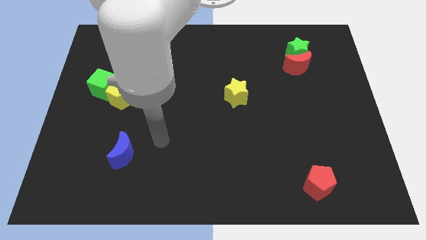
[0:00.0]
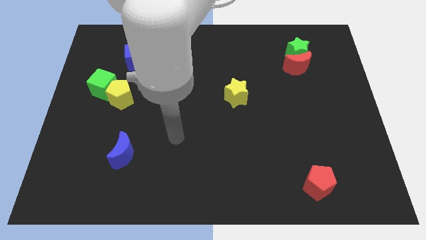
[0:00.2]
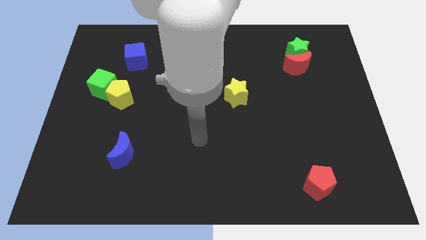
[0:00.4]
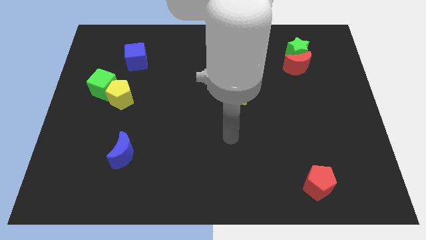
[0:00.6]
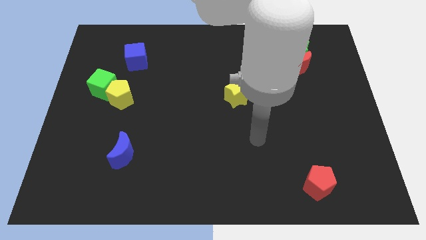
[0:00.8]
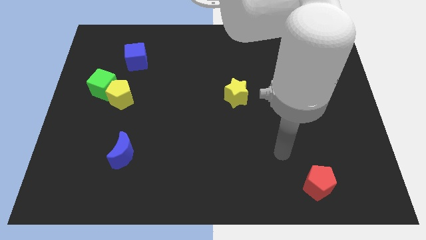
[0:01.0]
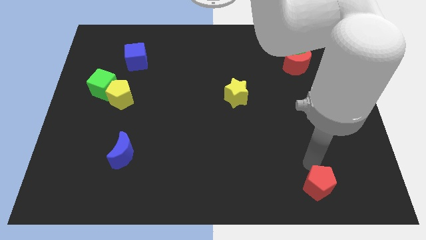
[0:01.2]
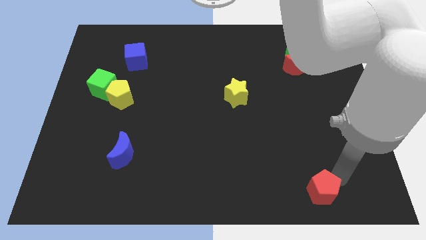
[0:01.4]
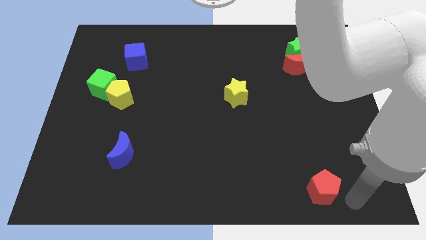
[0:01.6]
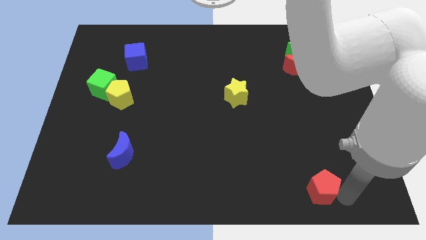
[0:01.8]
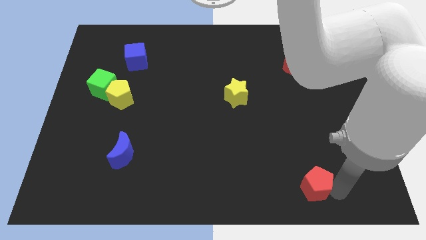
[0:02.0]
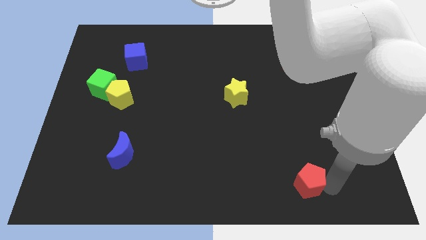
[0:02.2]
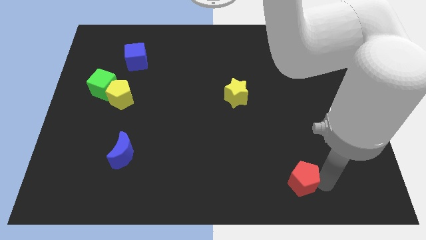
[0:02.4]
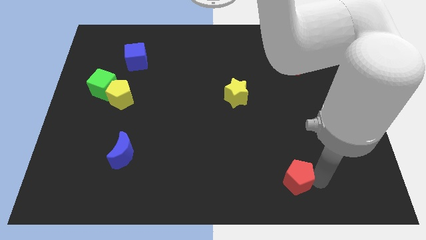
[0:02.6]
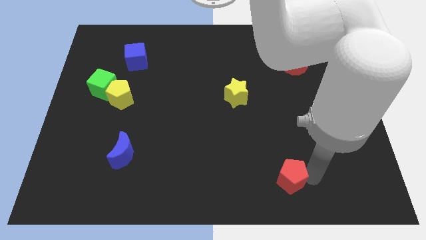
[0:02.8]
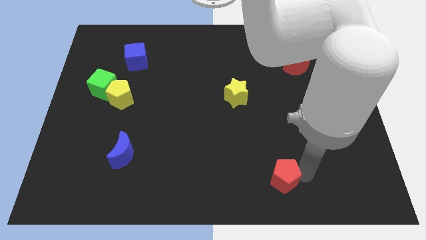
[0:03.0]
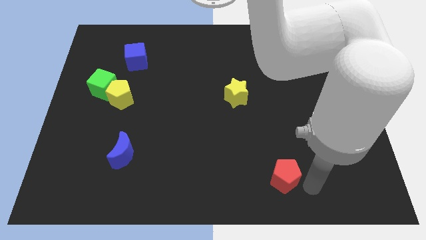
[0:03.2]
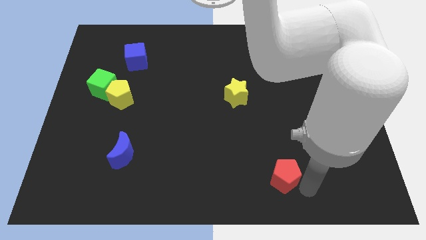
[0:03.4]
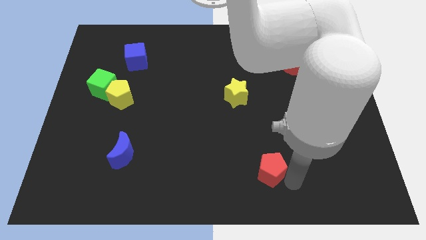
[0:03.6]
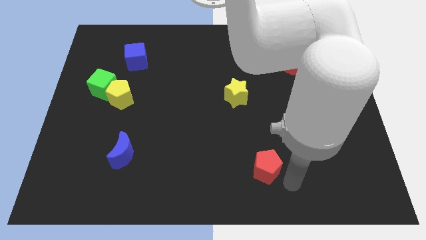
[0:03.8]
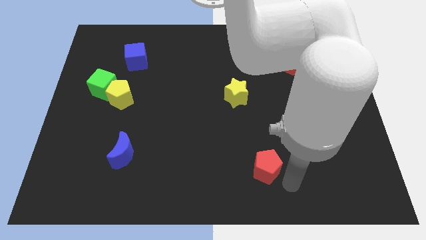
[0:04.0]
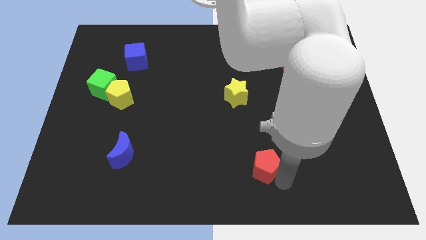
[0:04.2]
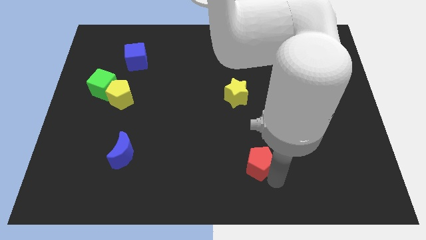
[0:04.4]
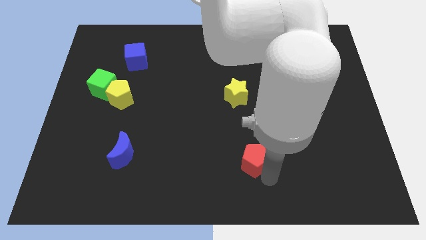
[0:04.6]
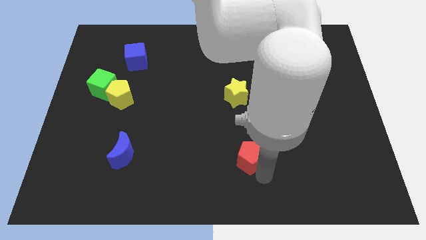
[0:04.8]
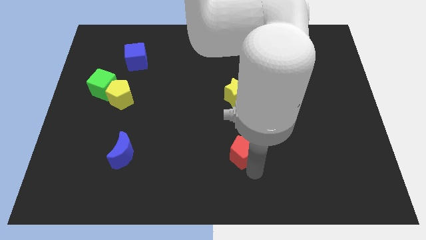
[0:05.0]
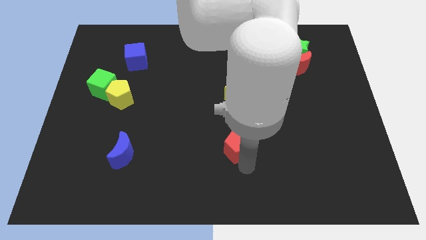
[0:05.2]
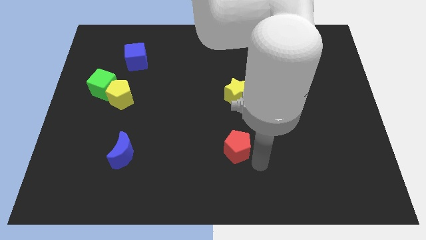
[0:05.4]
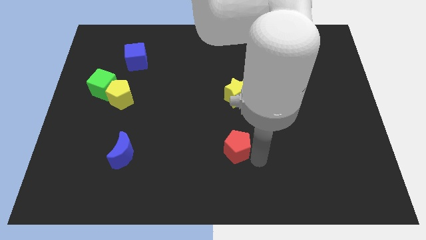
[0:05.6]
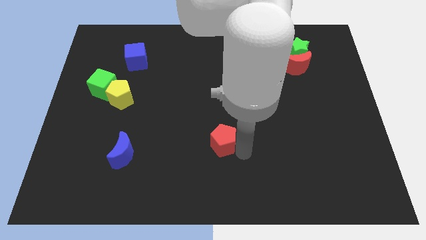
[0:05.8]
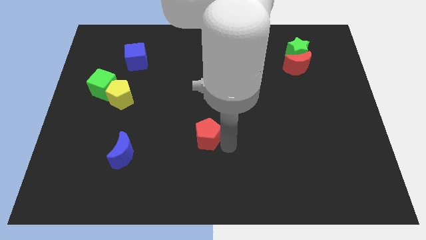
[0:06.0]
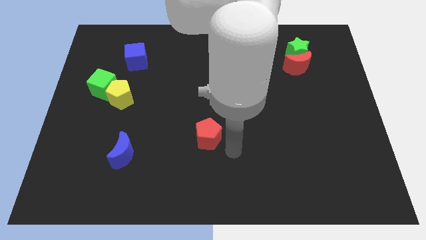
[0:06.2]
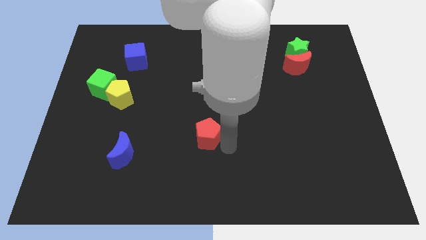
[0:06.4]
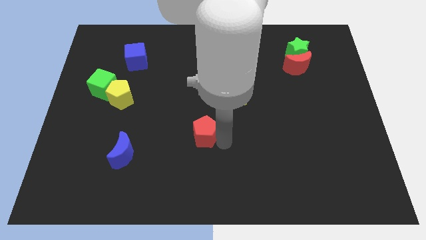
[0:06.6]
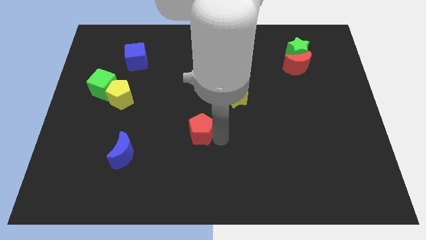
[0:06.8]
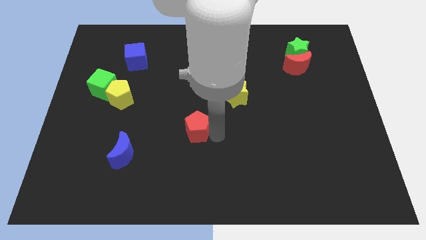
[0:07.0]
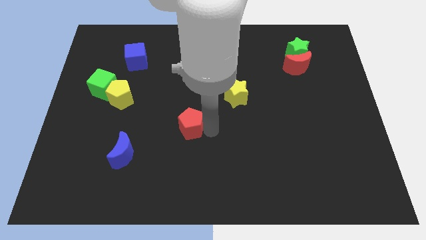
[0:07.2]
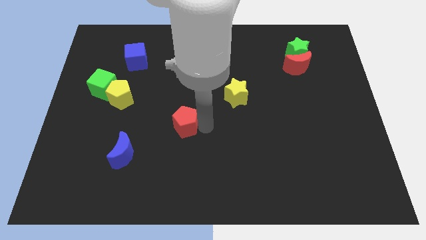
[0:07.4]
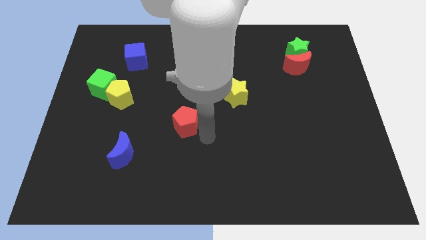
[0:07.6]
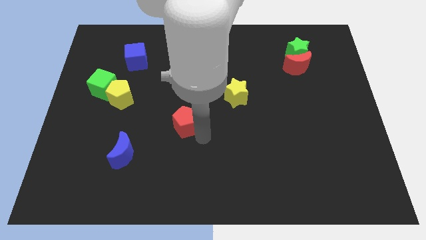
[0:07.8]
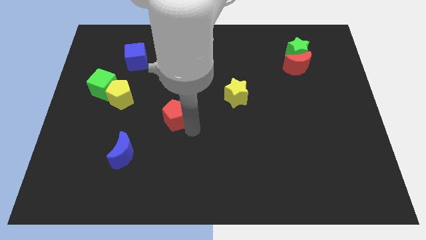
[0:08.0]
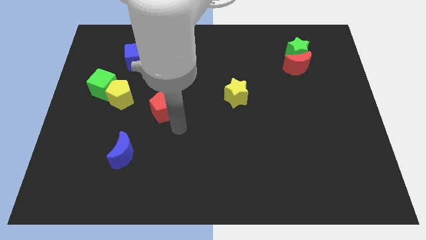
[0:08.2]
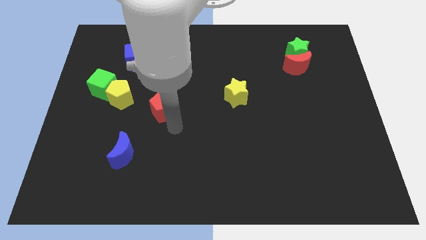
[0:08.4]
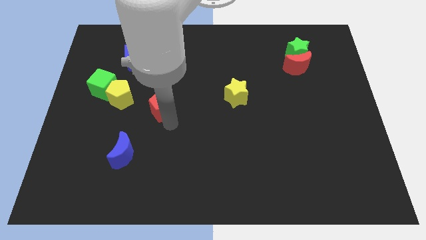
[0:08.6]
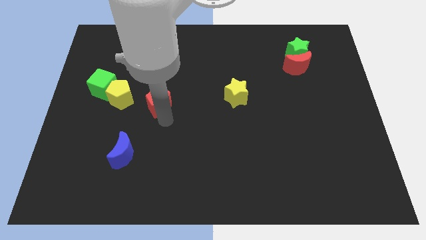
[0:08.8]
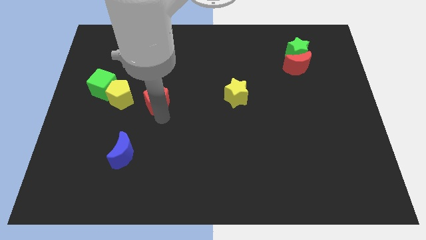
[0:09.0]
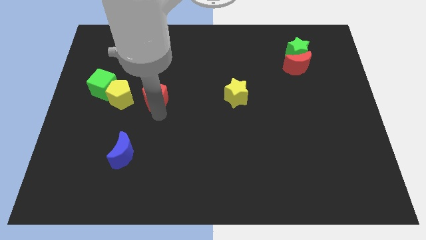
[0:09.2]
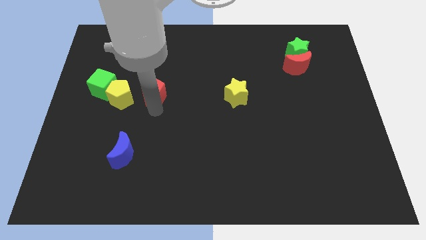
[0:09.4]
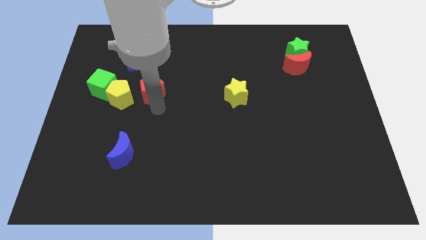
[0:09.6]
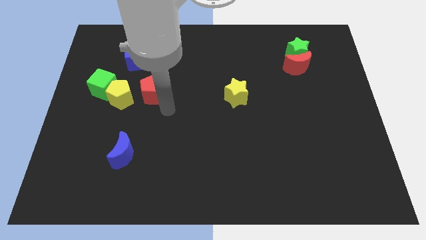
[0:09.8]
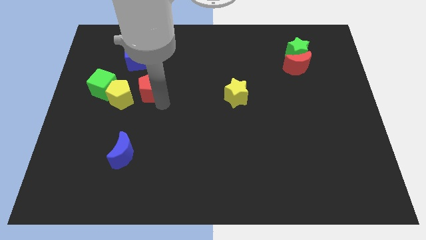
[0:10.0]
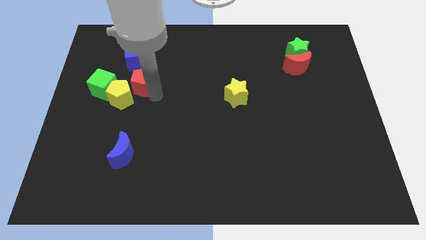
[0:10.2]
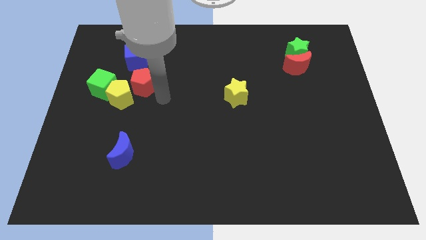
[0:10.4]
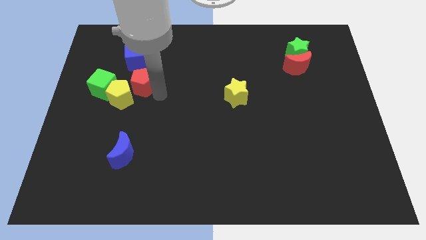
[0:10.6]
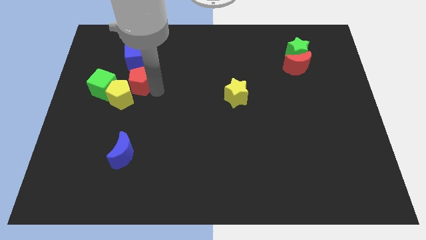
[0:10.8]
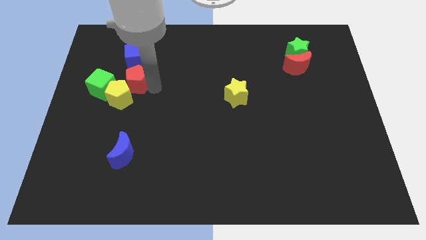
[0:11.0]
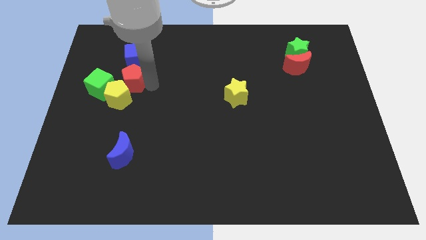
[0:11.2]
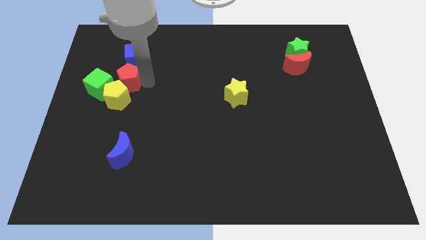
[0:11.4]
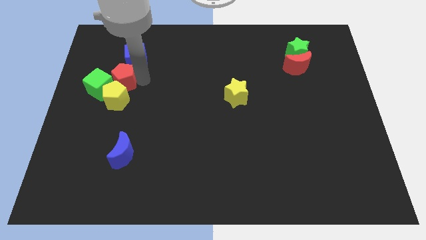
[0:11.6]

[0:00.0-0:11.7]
move the red pentagon to the green cube

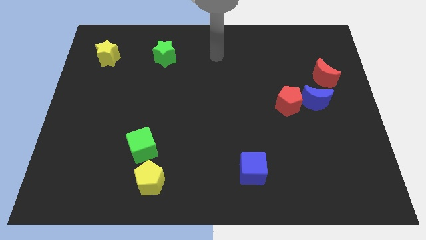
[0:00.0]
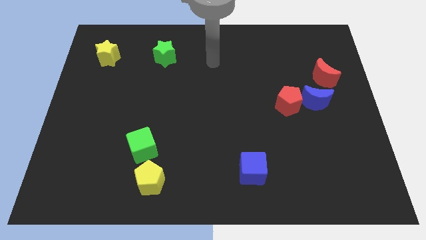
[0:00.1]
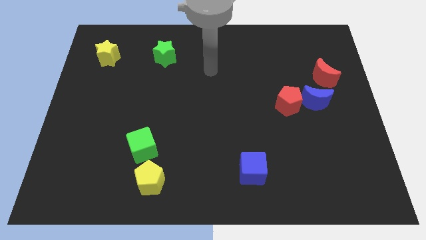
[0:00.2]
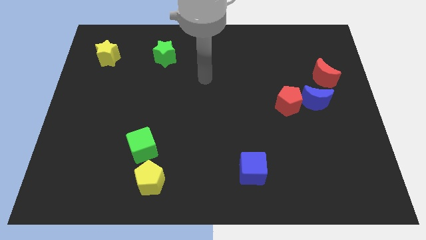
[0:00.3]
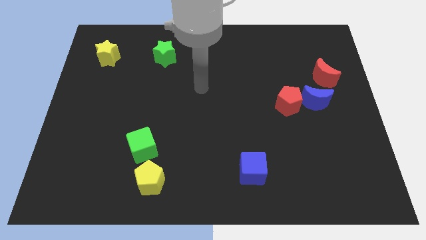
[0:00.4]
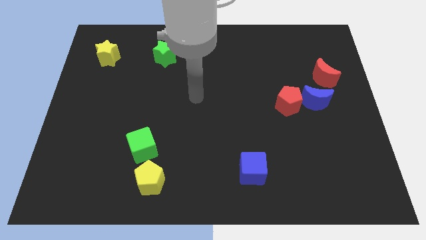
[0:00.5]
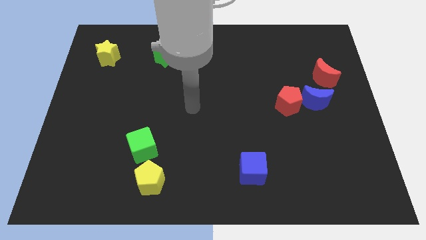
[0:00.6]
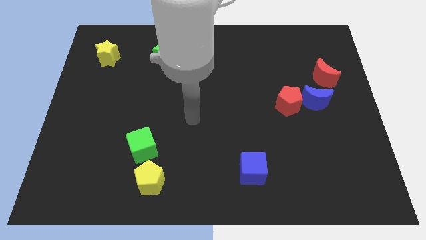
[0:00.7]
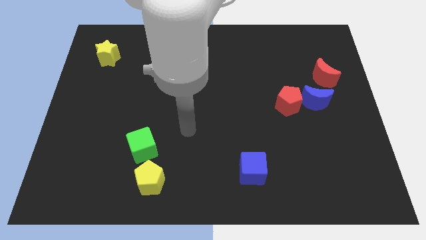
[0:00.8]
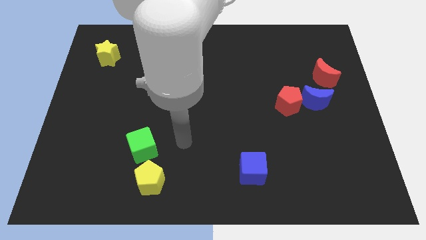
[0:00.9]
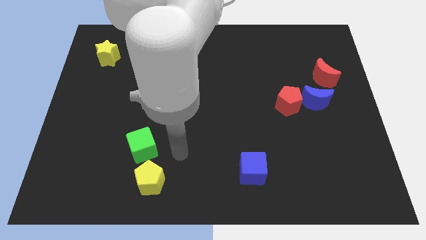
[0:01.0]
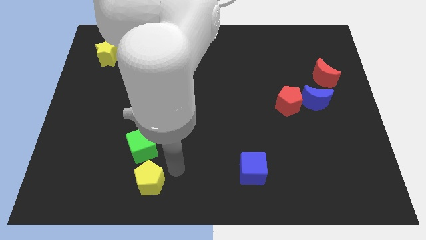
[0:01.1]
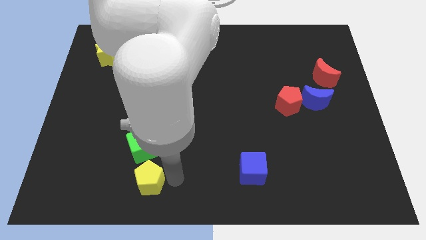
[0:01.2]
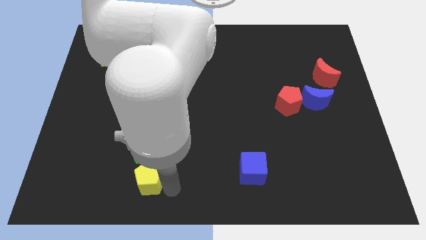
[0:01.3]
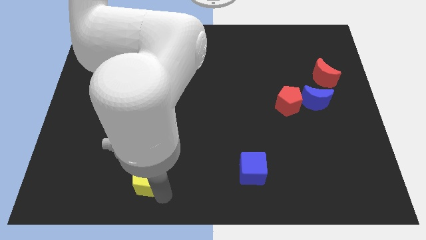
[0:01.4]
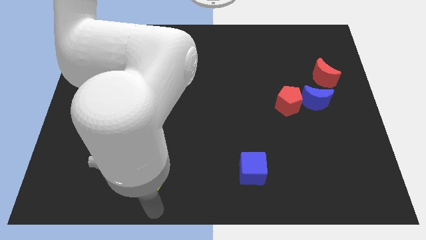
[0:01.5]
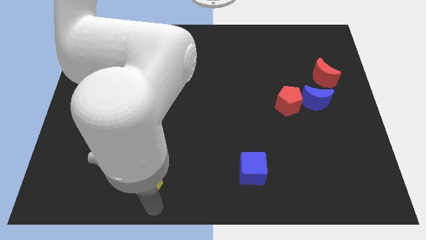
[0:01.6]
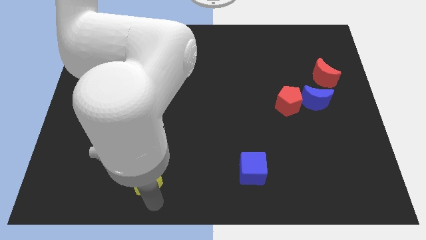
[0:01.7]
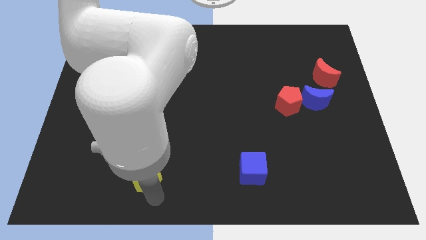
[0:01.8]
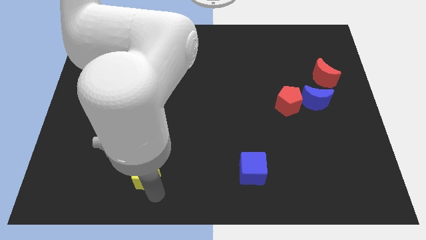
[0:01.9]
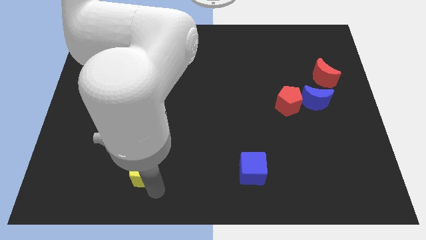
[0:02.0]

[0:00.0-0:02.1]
push the yellow pentagon towards the green cube
